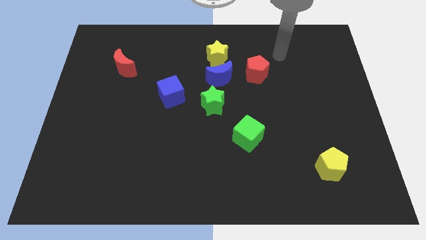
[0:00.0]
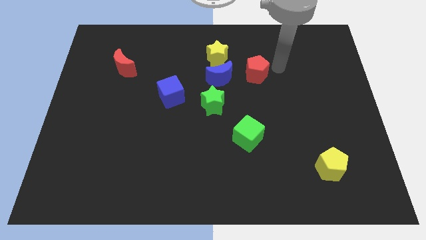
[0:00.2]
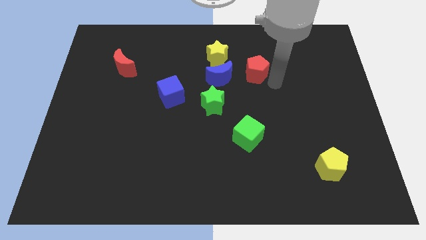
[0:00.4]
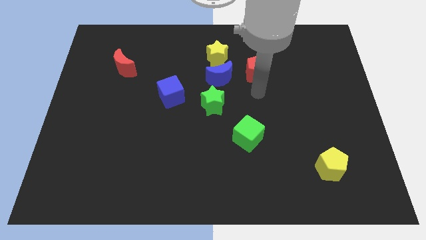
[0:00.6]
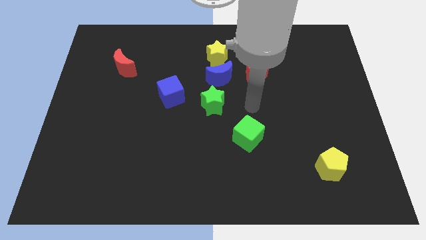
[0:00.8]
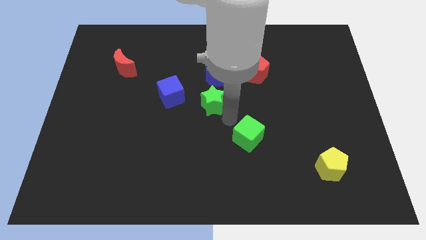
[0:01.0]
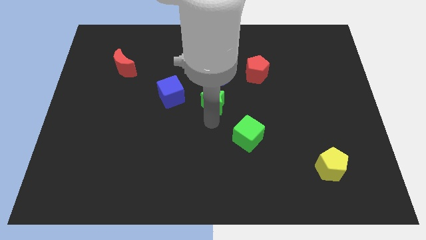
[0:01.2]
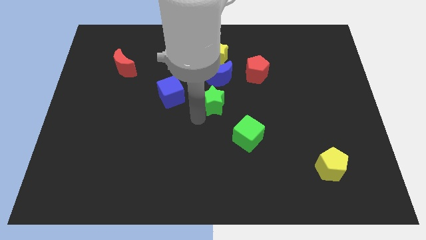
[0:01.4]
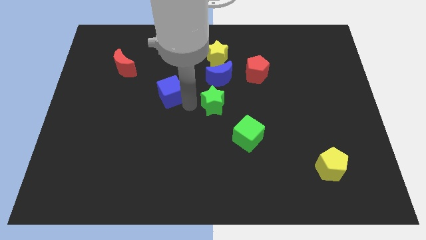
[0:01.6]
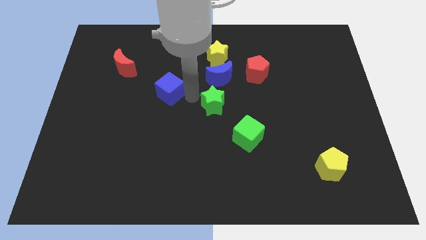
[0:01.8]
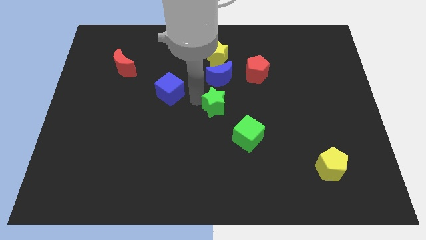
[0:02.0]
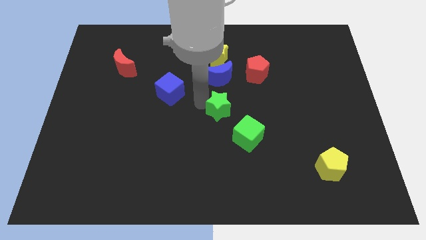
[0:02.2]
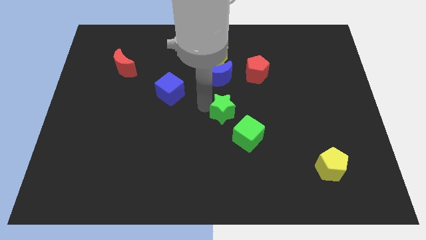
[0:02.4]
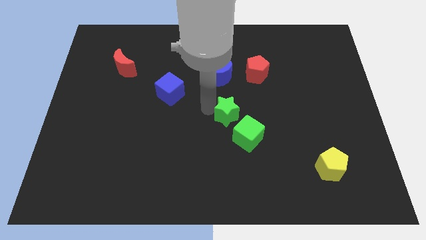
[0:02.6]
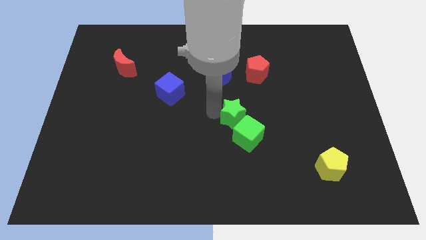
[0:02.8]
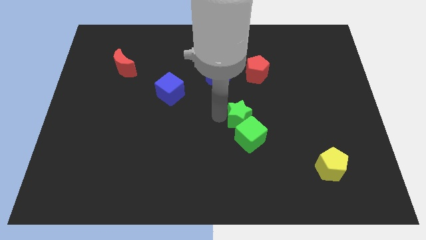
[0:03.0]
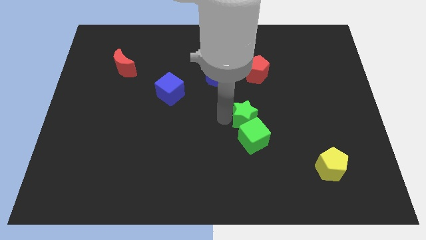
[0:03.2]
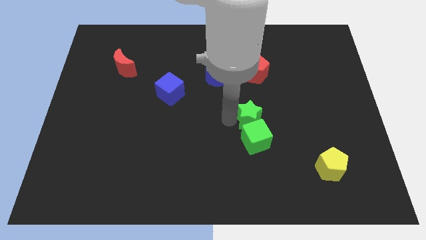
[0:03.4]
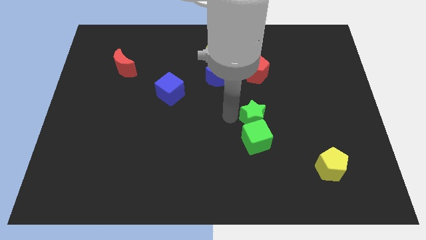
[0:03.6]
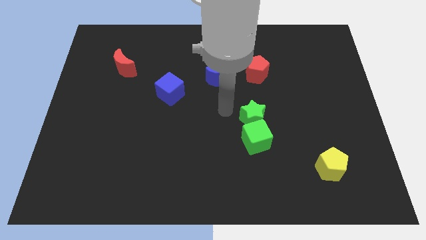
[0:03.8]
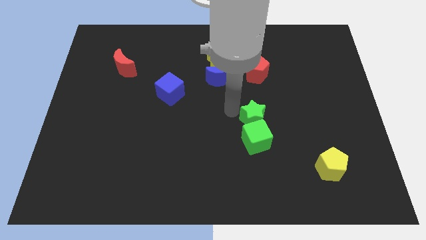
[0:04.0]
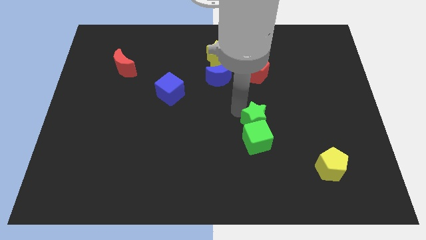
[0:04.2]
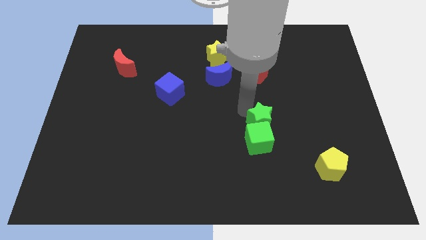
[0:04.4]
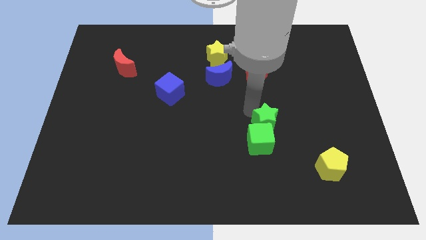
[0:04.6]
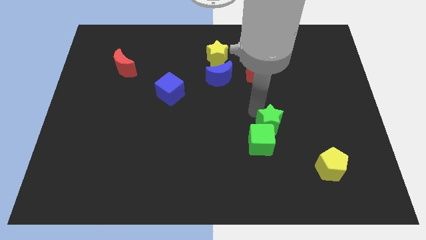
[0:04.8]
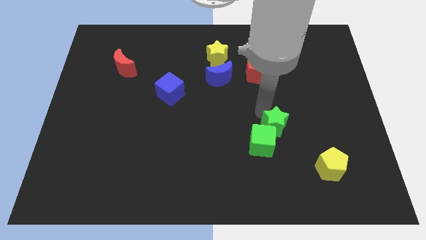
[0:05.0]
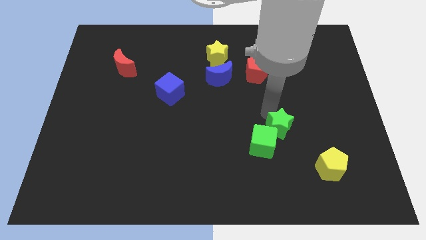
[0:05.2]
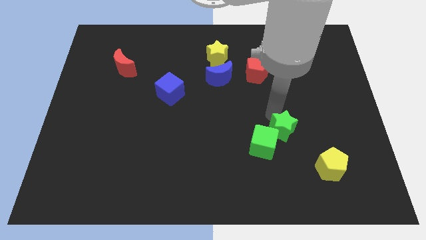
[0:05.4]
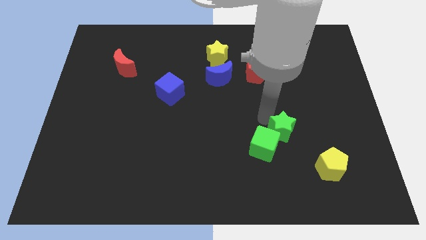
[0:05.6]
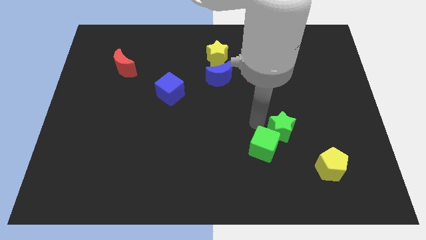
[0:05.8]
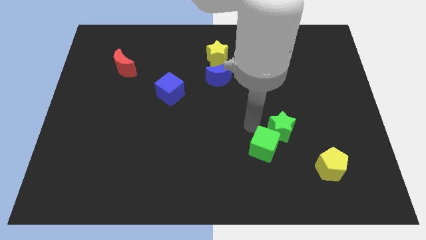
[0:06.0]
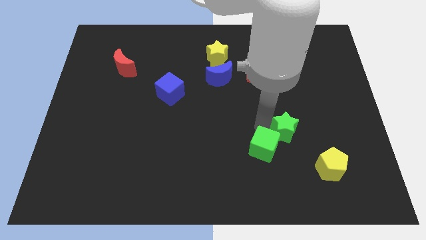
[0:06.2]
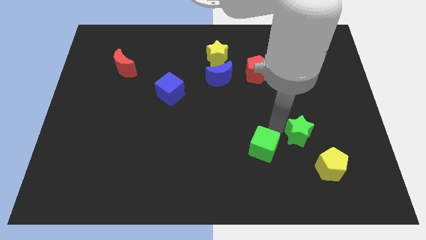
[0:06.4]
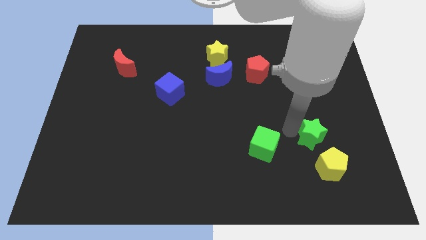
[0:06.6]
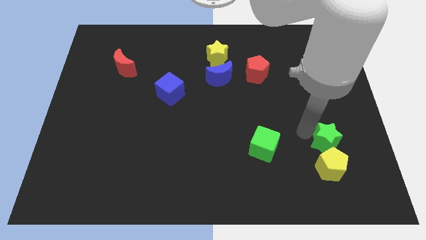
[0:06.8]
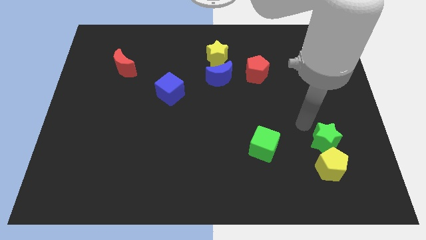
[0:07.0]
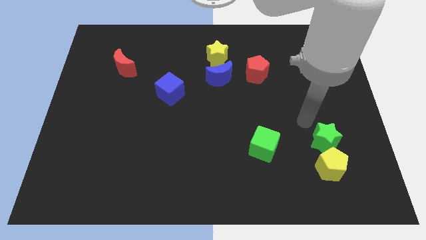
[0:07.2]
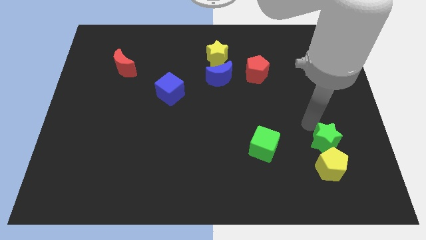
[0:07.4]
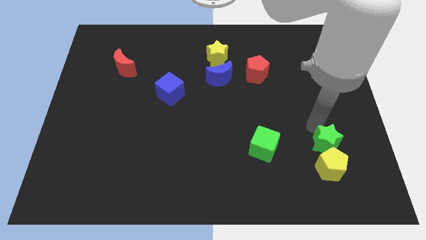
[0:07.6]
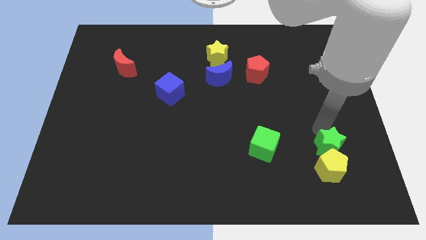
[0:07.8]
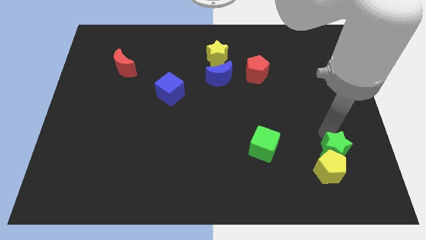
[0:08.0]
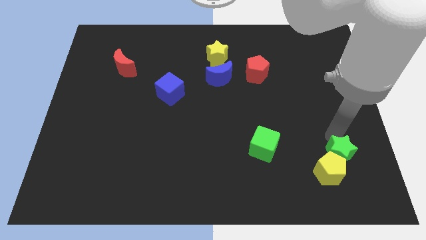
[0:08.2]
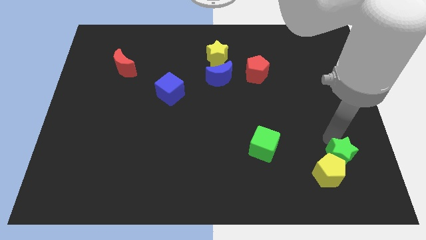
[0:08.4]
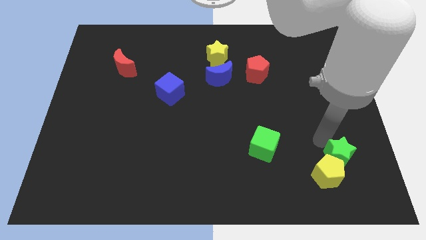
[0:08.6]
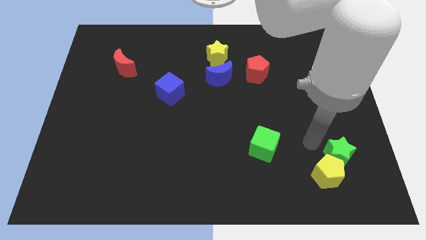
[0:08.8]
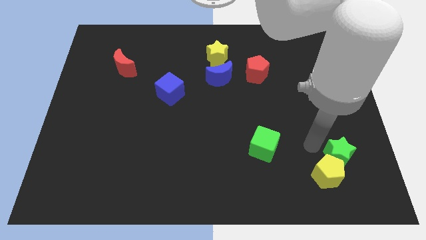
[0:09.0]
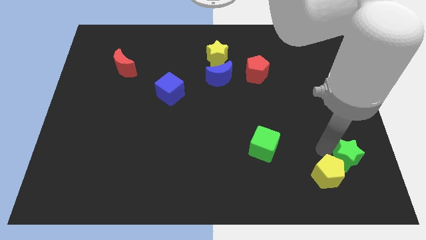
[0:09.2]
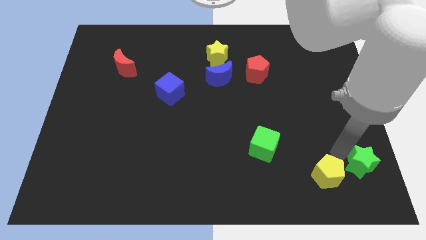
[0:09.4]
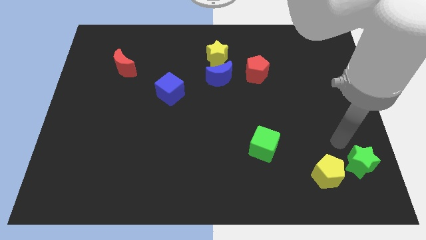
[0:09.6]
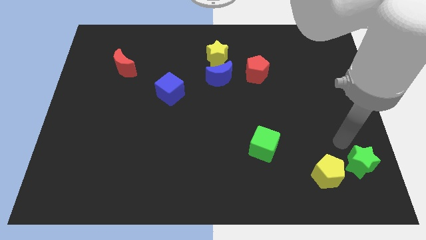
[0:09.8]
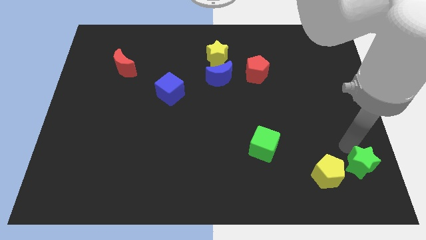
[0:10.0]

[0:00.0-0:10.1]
push the green star to the bottom right of the board

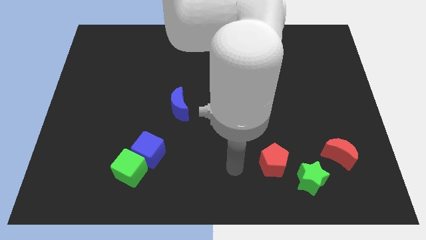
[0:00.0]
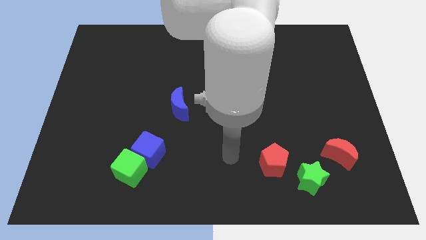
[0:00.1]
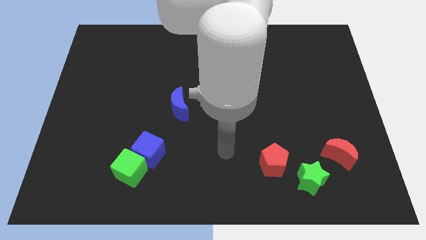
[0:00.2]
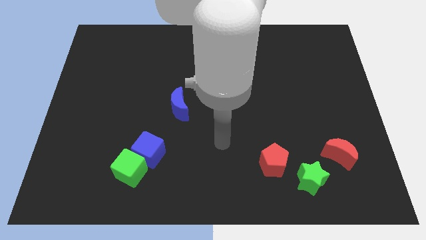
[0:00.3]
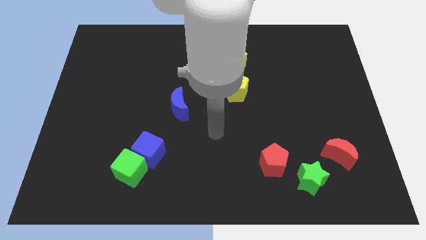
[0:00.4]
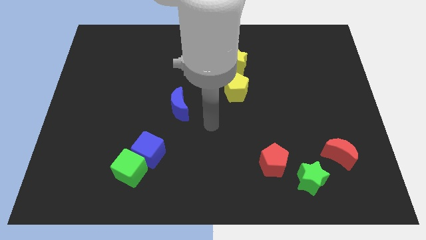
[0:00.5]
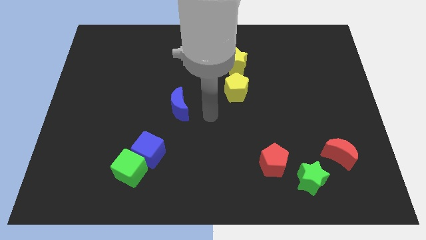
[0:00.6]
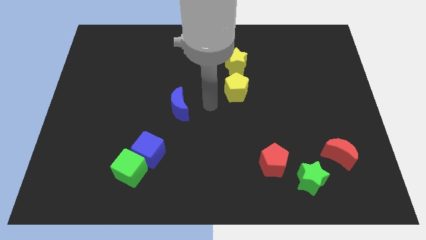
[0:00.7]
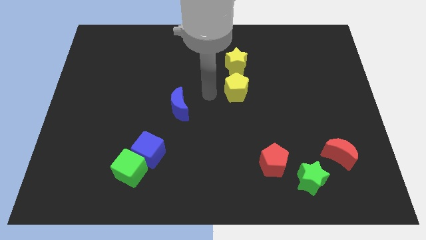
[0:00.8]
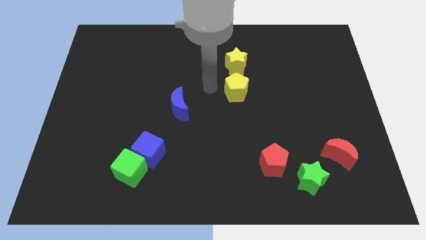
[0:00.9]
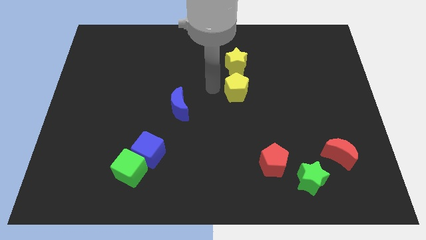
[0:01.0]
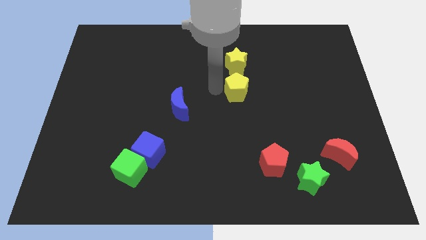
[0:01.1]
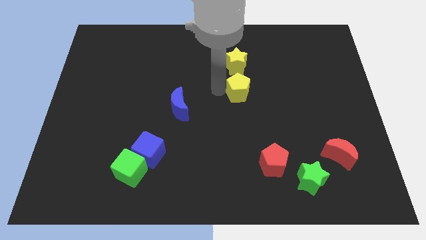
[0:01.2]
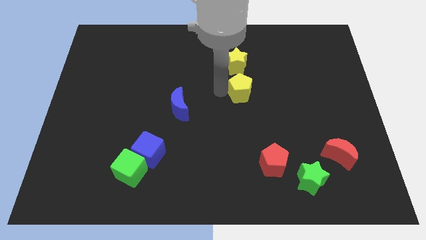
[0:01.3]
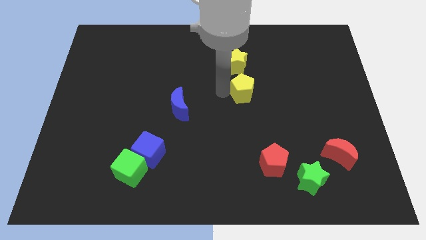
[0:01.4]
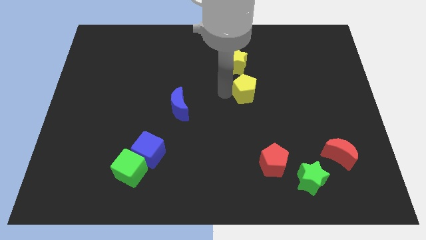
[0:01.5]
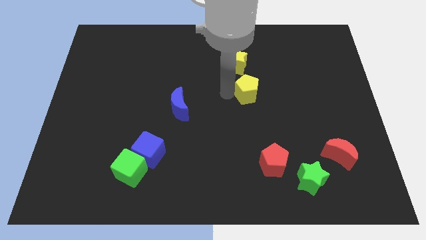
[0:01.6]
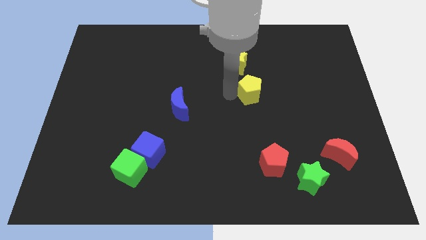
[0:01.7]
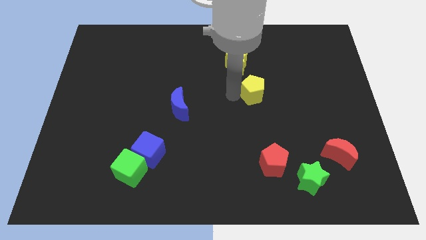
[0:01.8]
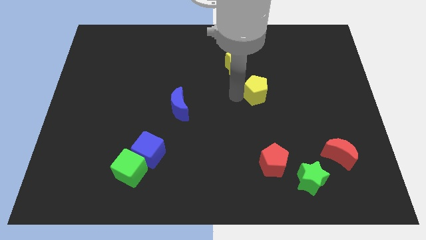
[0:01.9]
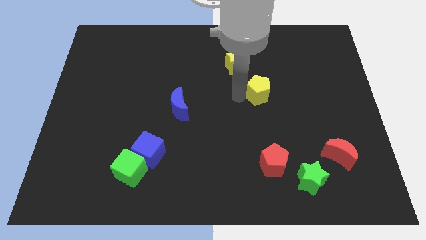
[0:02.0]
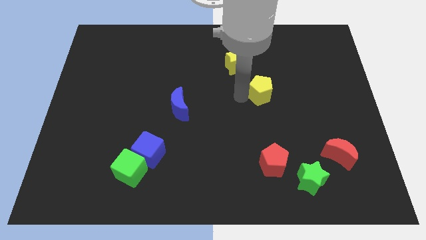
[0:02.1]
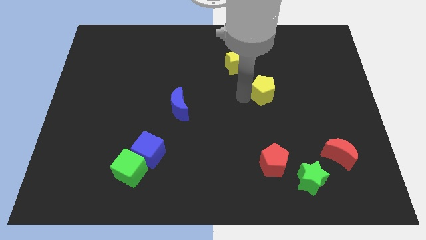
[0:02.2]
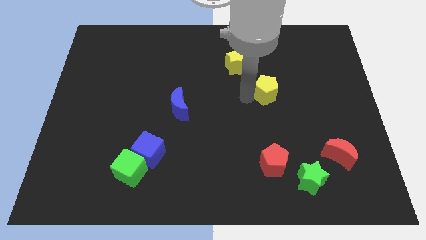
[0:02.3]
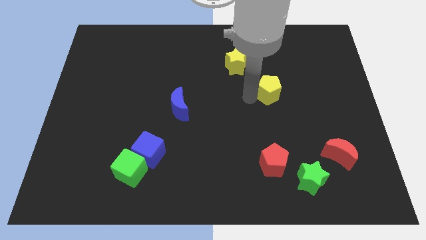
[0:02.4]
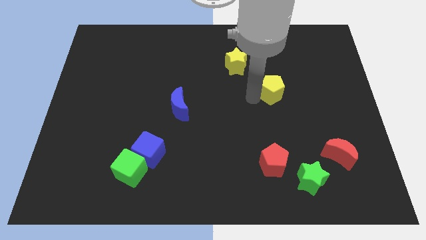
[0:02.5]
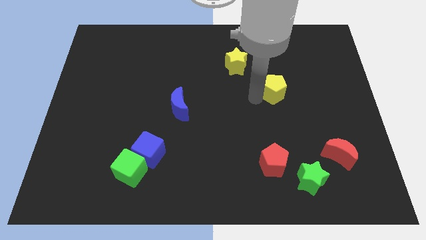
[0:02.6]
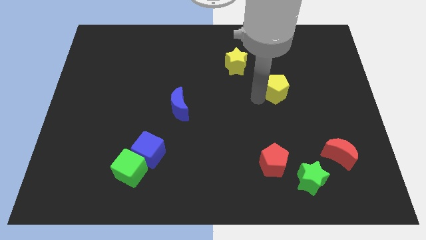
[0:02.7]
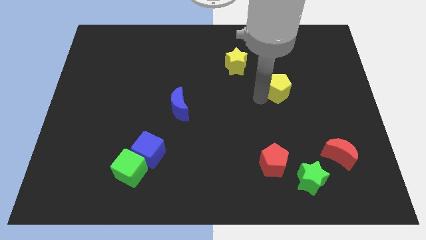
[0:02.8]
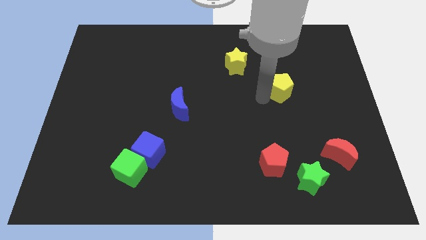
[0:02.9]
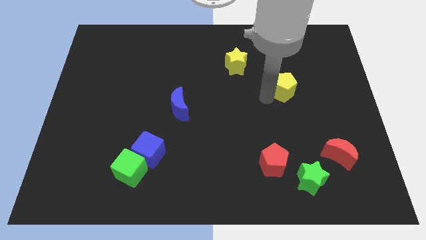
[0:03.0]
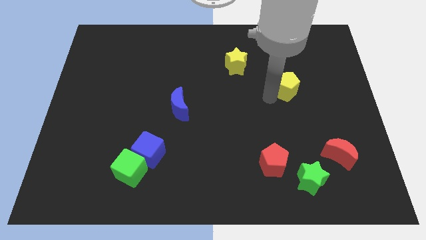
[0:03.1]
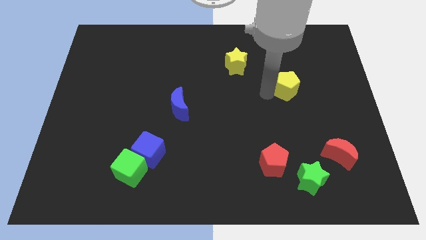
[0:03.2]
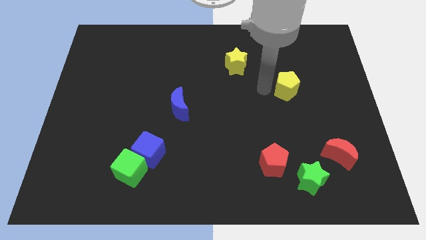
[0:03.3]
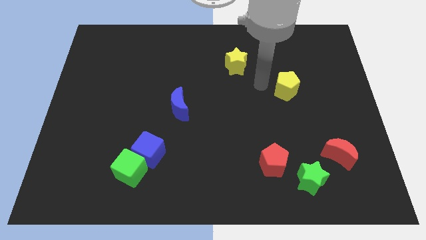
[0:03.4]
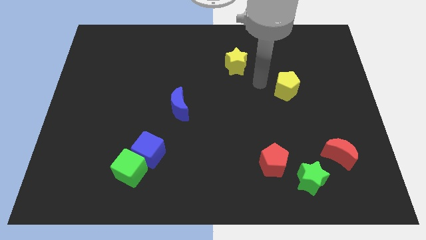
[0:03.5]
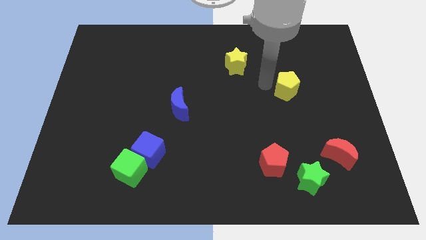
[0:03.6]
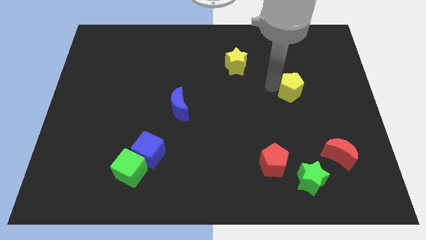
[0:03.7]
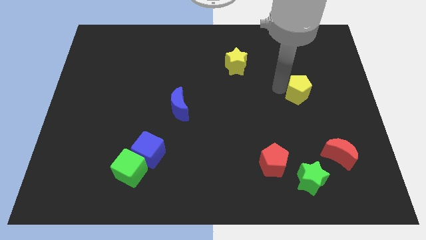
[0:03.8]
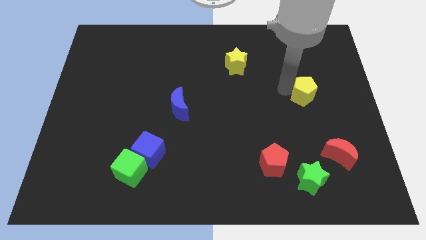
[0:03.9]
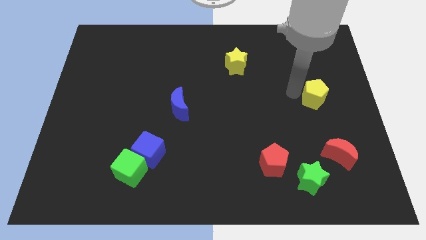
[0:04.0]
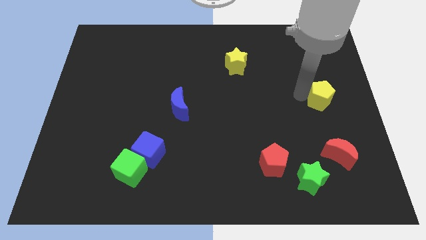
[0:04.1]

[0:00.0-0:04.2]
move the yellow pentagon to the right side
